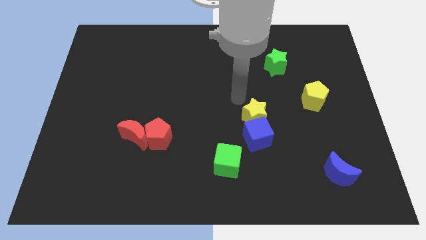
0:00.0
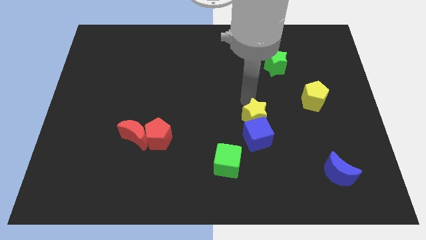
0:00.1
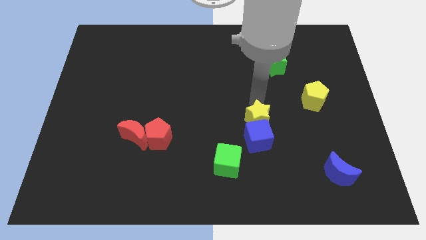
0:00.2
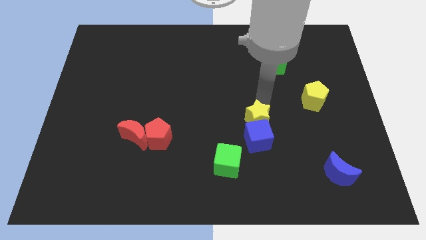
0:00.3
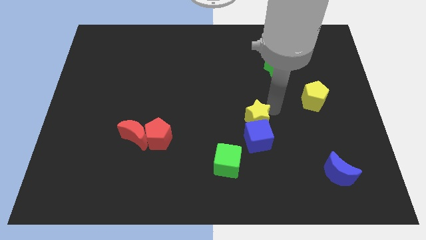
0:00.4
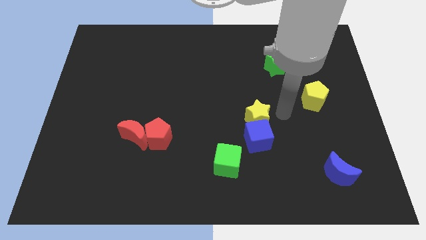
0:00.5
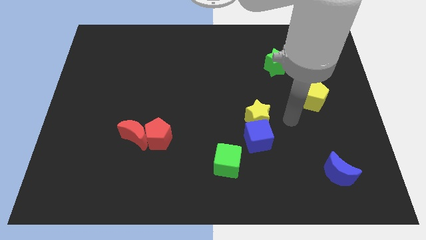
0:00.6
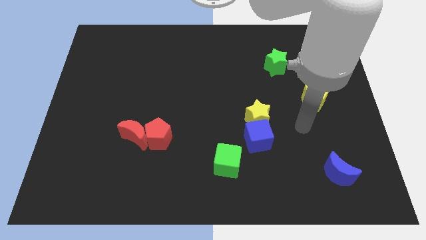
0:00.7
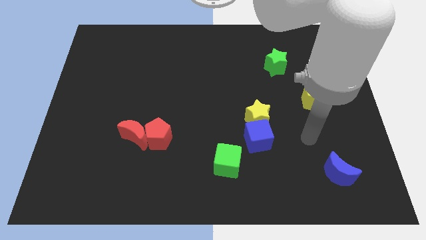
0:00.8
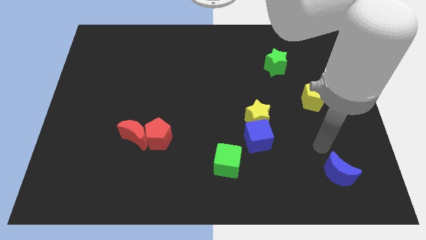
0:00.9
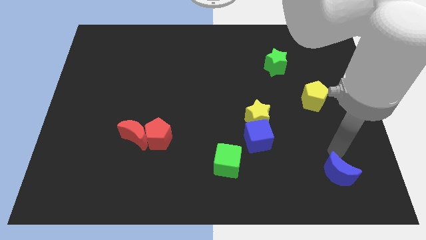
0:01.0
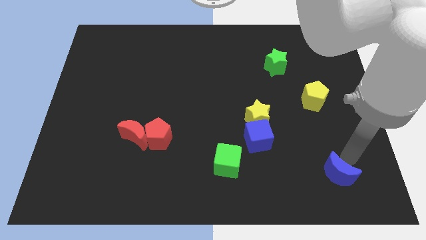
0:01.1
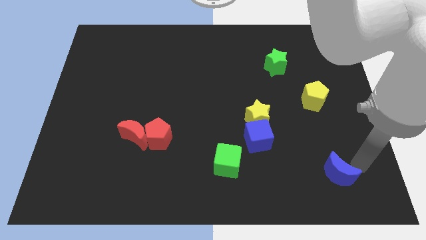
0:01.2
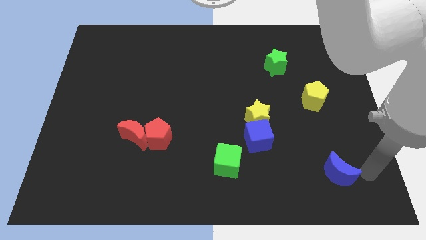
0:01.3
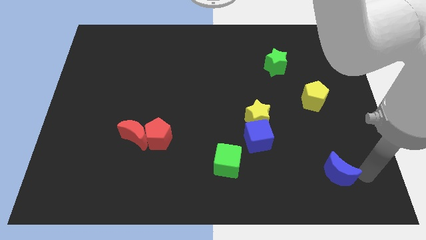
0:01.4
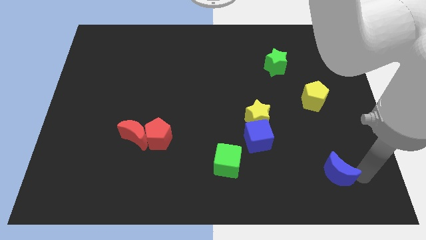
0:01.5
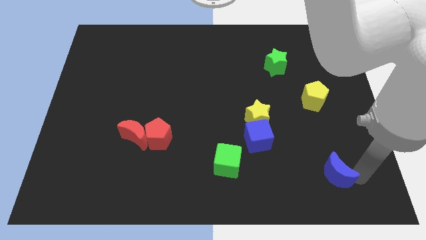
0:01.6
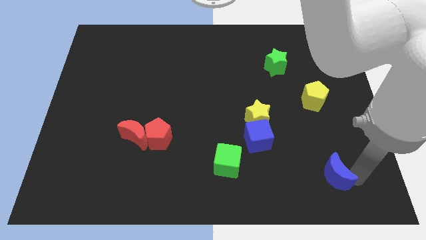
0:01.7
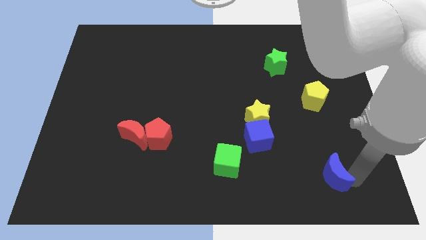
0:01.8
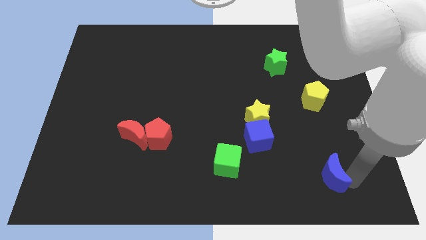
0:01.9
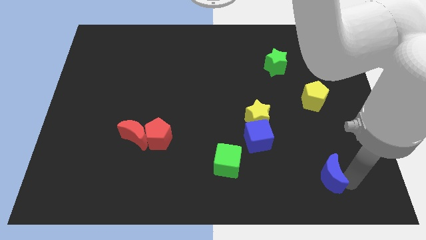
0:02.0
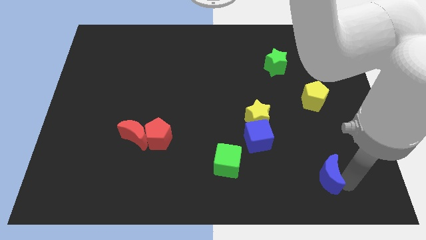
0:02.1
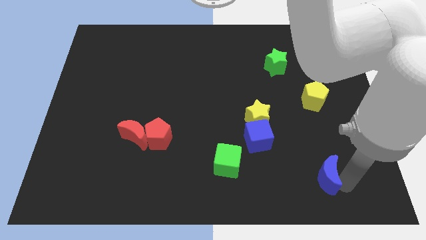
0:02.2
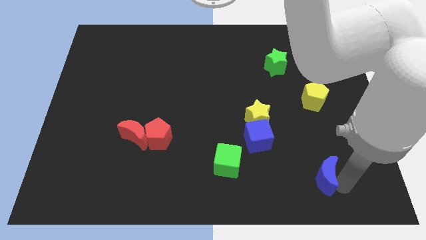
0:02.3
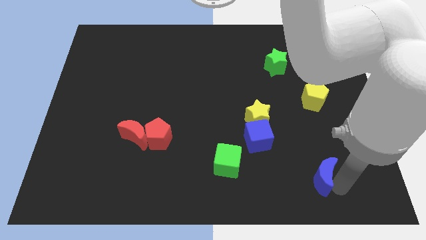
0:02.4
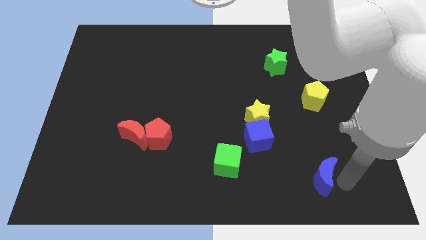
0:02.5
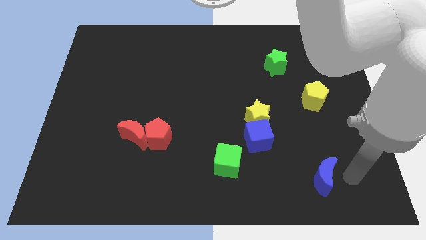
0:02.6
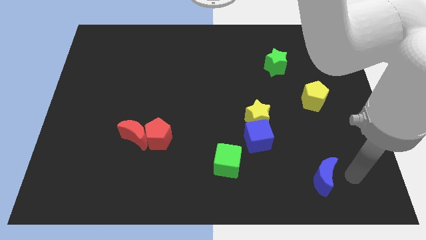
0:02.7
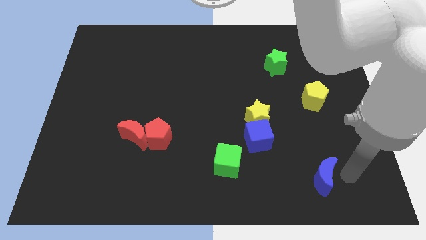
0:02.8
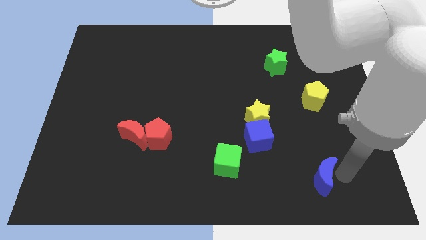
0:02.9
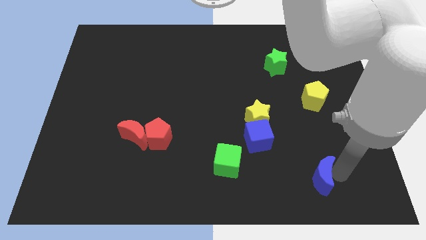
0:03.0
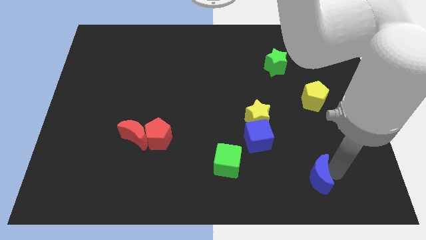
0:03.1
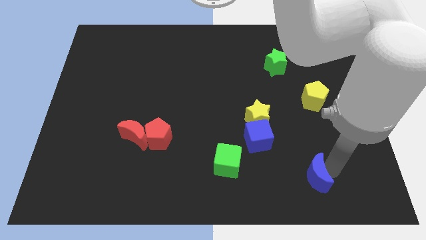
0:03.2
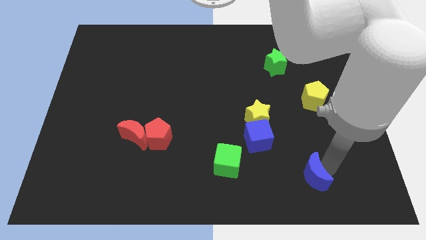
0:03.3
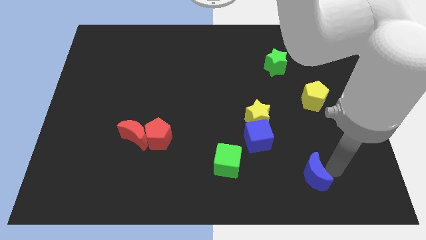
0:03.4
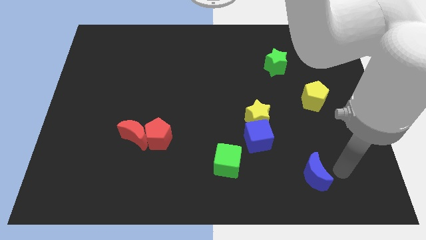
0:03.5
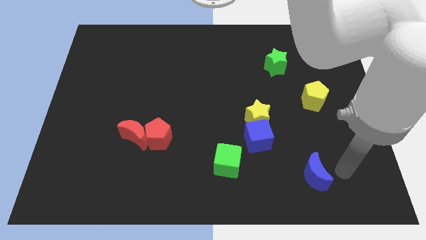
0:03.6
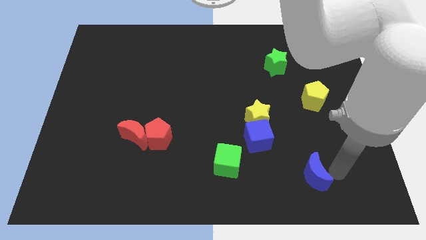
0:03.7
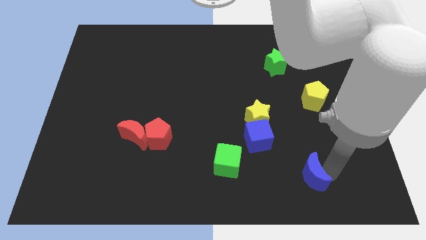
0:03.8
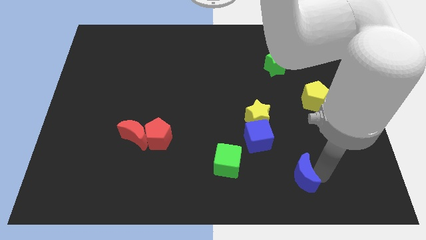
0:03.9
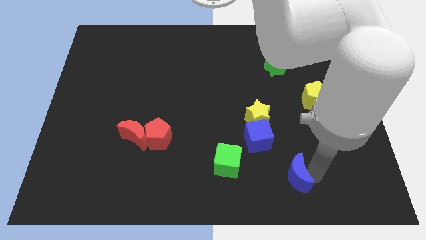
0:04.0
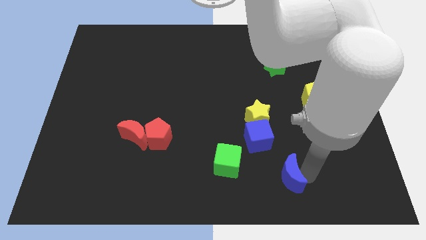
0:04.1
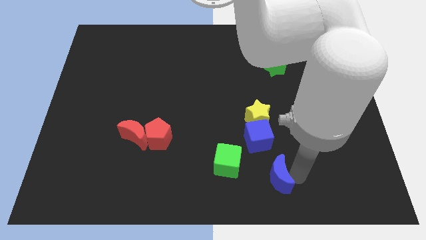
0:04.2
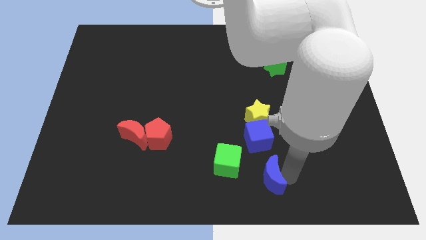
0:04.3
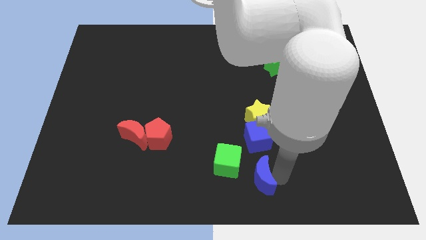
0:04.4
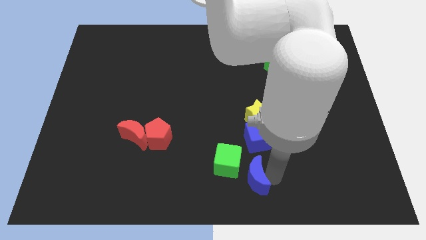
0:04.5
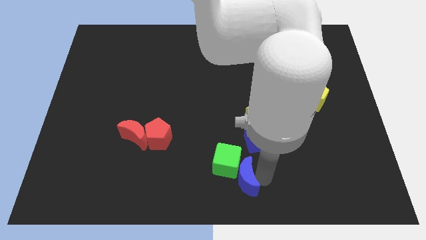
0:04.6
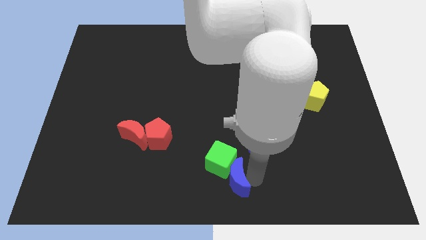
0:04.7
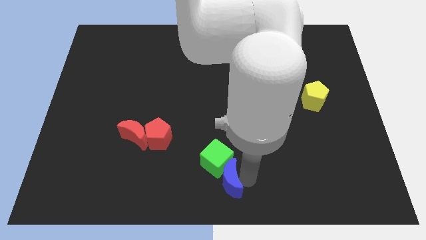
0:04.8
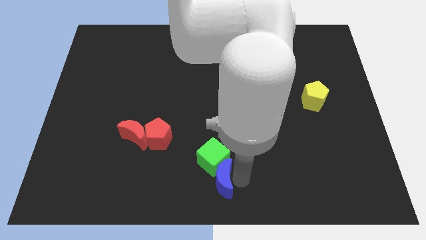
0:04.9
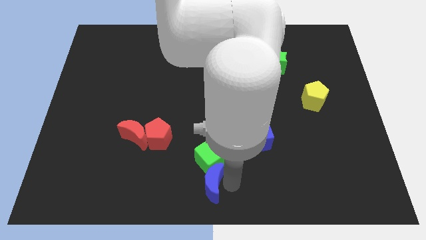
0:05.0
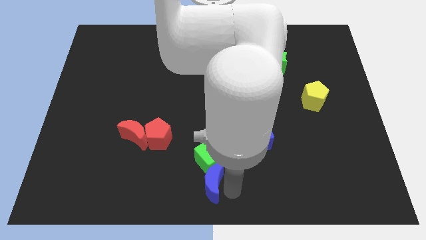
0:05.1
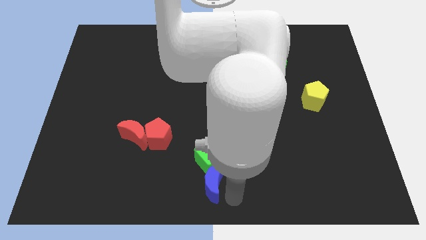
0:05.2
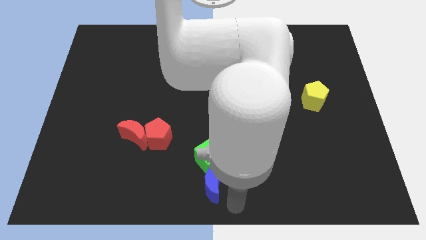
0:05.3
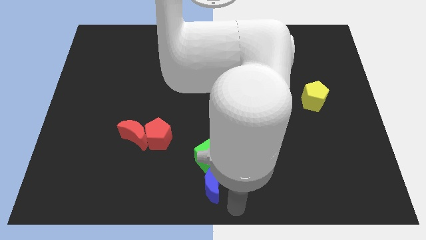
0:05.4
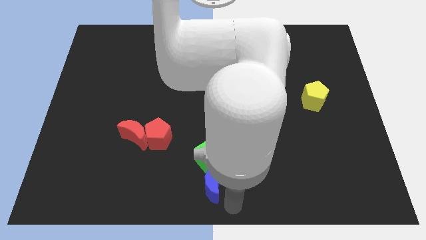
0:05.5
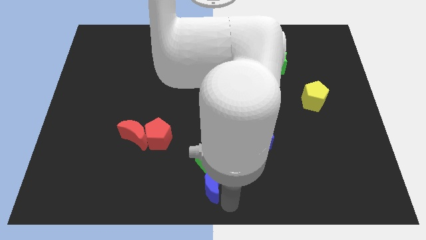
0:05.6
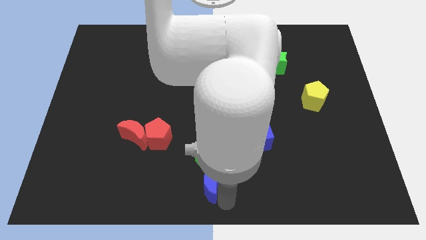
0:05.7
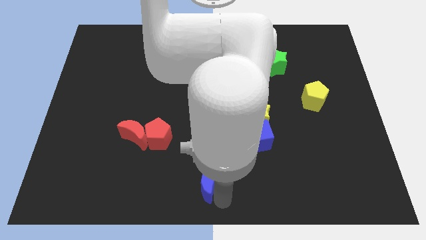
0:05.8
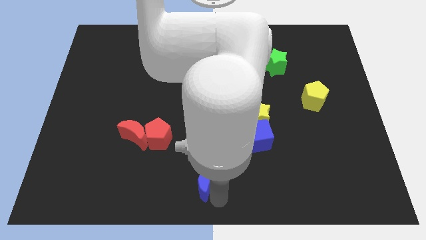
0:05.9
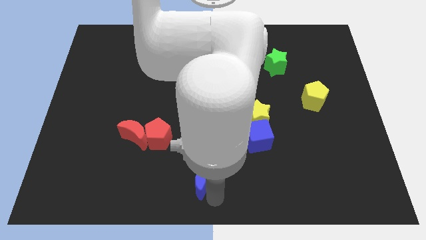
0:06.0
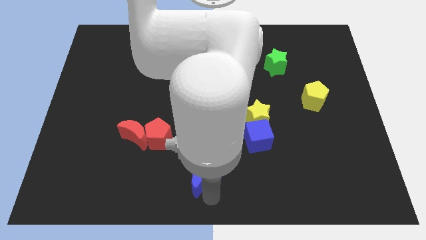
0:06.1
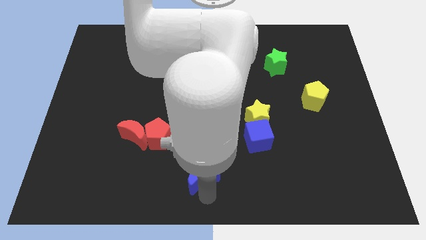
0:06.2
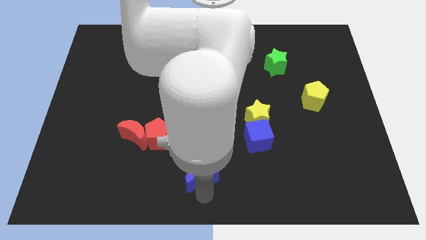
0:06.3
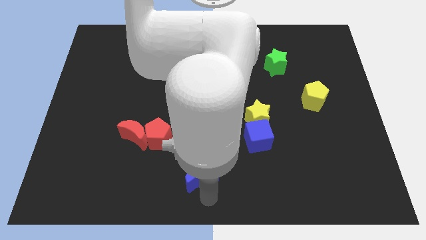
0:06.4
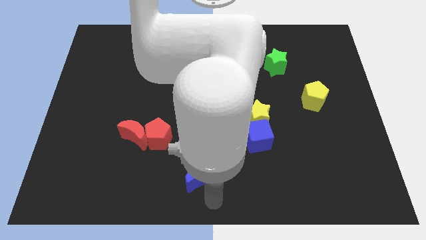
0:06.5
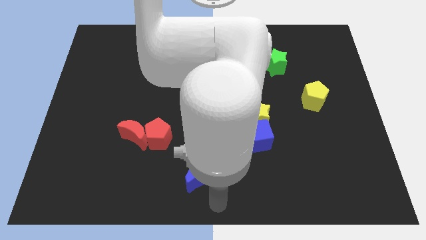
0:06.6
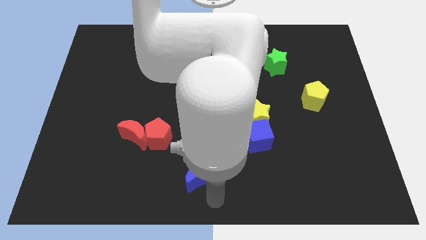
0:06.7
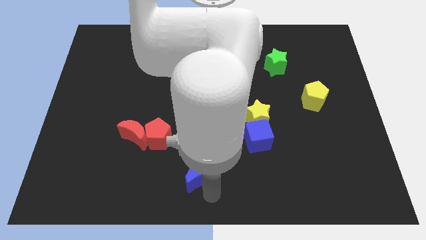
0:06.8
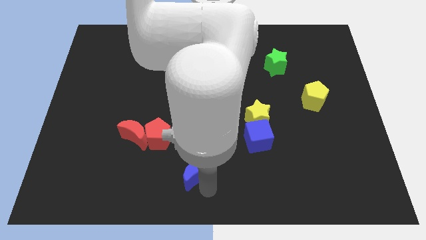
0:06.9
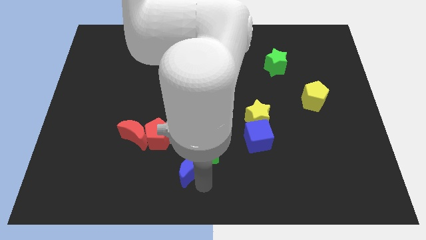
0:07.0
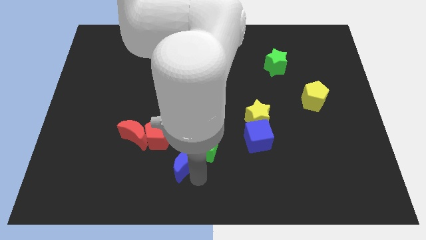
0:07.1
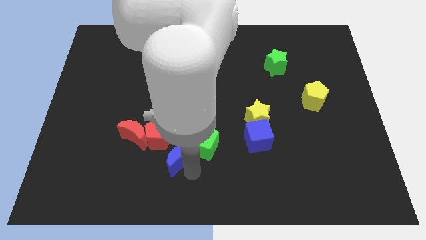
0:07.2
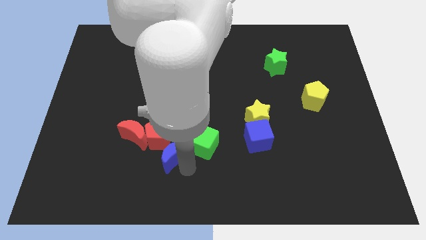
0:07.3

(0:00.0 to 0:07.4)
slide the blue moon next to the red pentagon

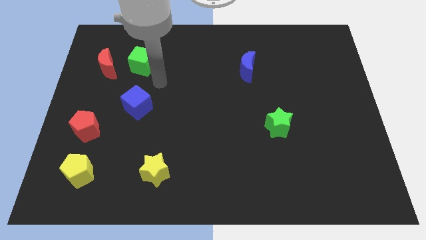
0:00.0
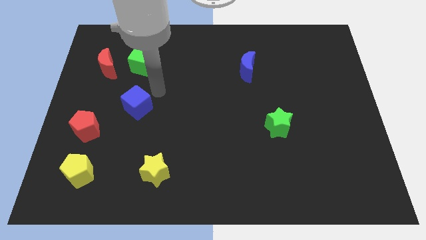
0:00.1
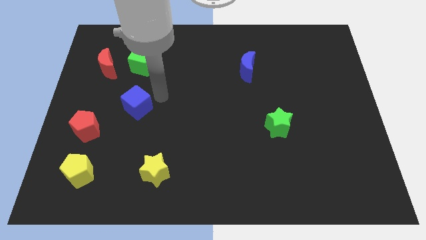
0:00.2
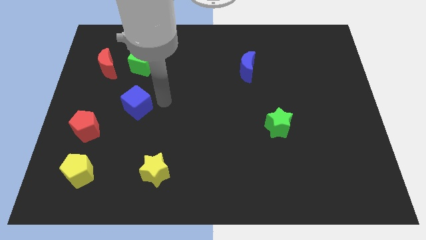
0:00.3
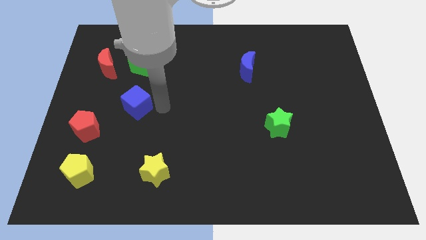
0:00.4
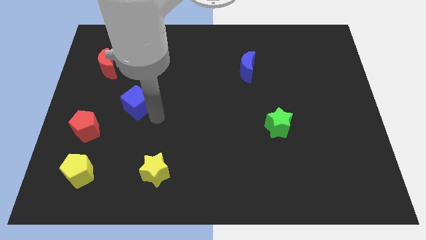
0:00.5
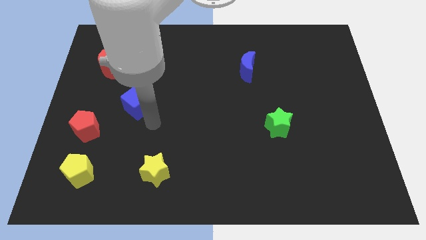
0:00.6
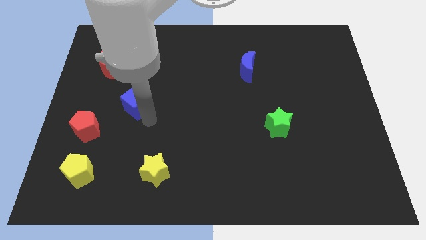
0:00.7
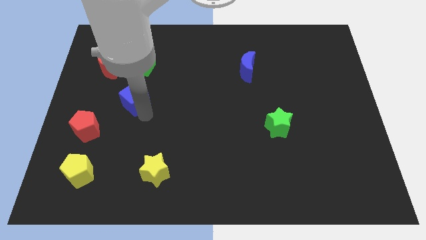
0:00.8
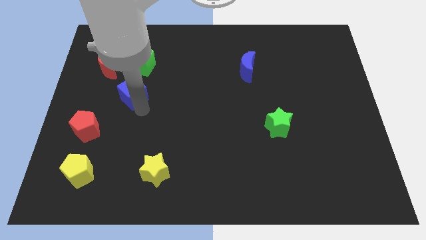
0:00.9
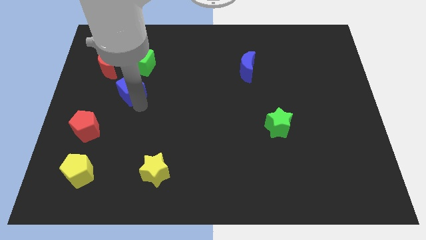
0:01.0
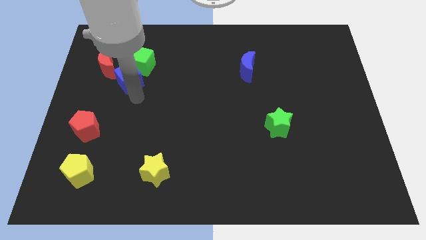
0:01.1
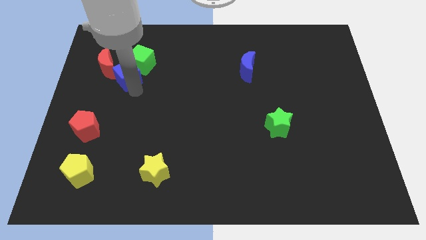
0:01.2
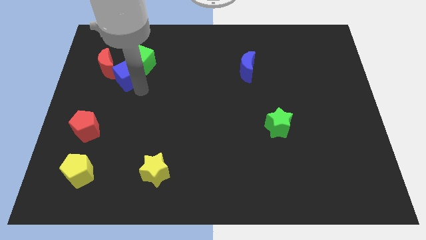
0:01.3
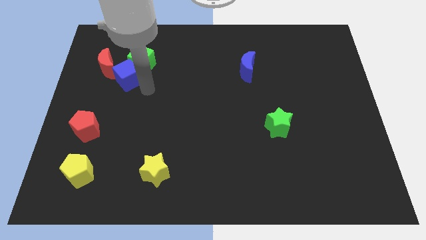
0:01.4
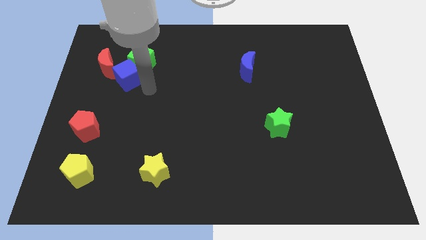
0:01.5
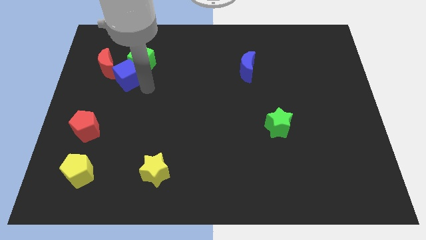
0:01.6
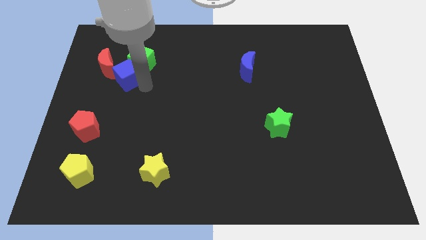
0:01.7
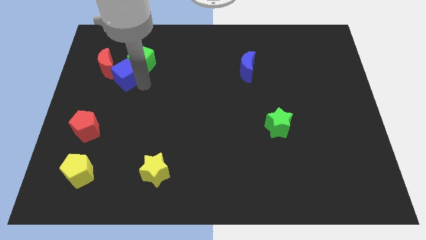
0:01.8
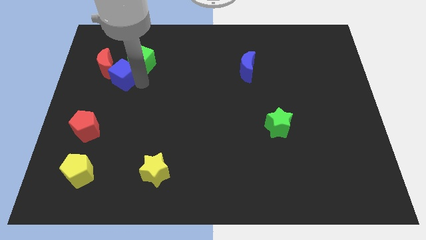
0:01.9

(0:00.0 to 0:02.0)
move the blue cube towards the red moon
